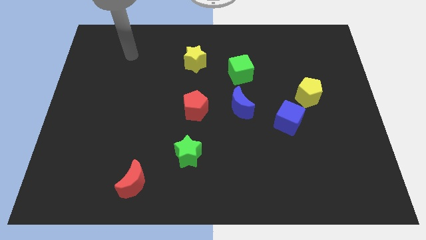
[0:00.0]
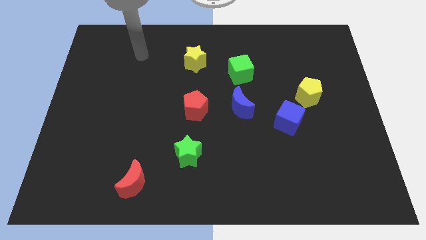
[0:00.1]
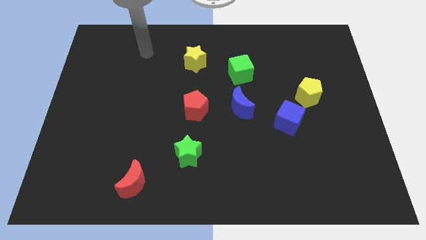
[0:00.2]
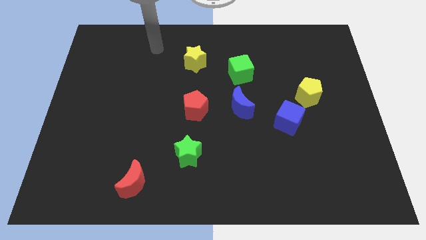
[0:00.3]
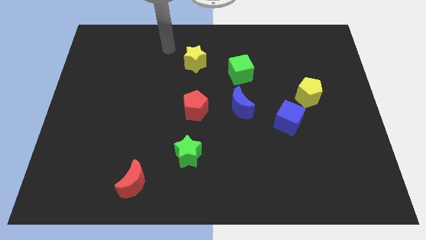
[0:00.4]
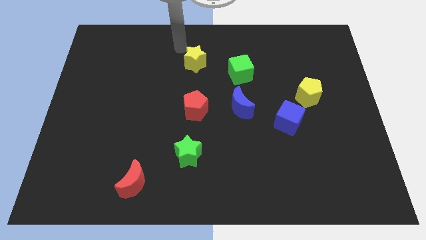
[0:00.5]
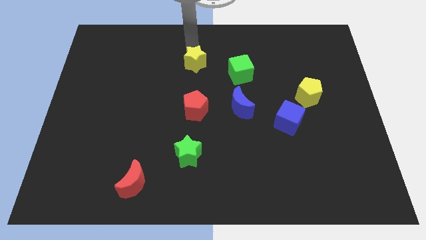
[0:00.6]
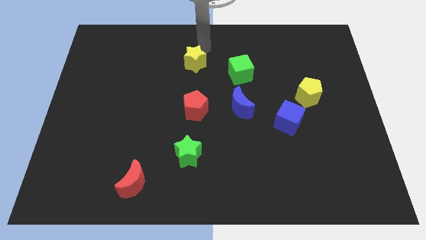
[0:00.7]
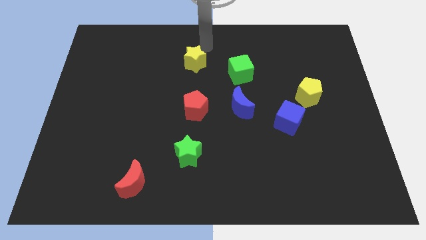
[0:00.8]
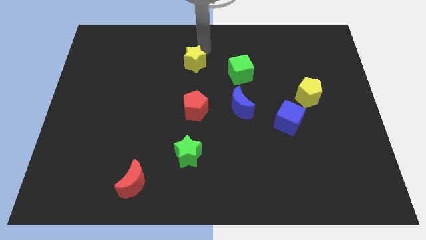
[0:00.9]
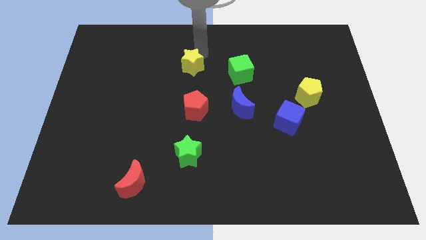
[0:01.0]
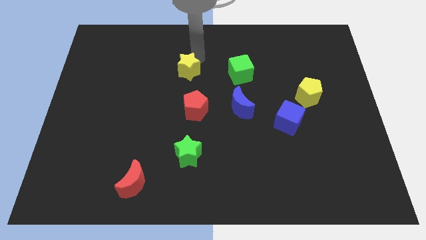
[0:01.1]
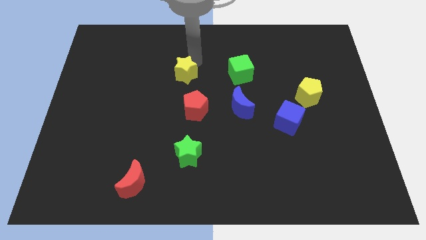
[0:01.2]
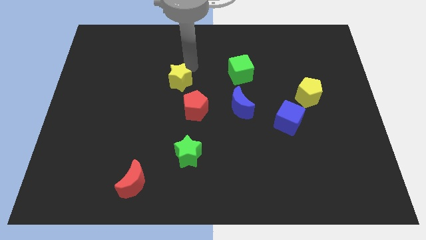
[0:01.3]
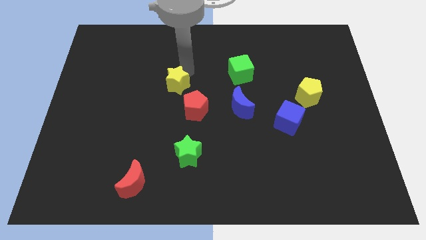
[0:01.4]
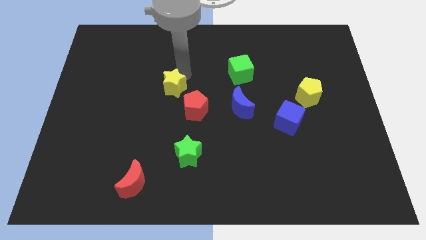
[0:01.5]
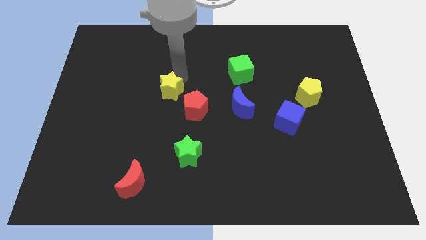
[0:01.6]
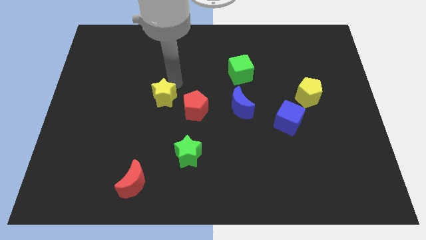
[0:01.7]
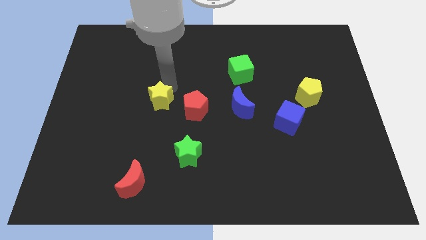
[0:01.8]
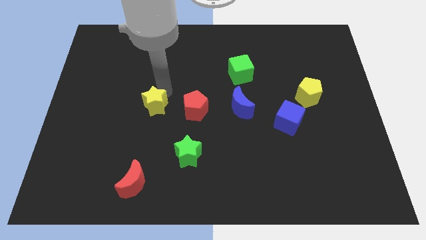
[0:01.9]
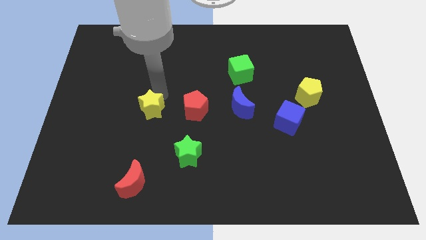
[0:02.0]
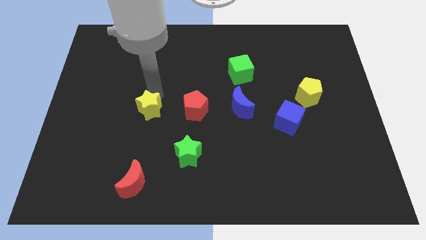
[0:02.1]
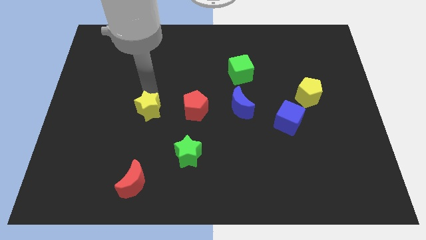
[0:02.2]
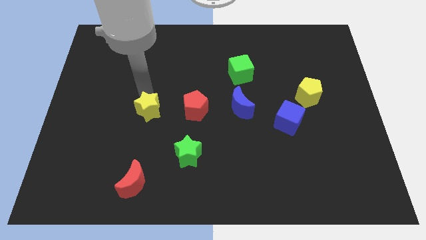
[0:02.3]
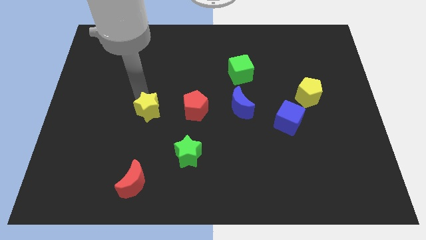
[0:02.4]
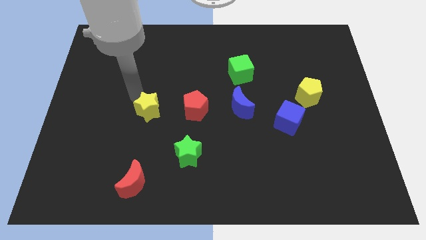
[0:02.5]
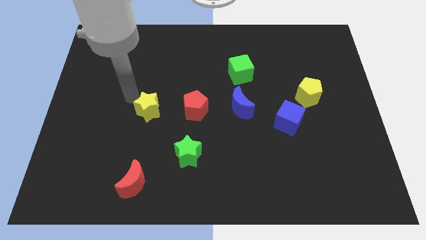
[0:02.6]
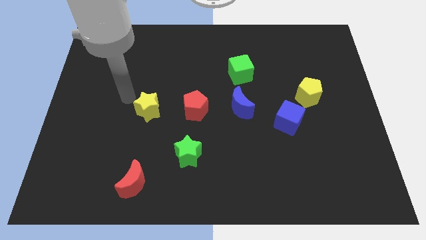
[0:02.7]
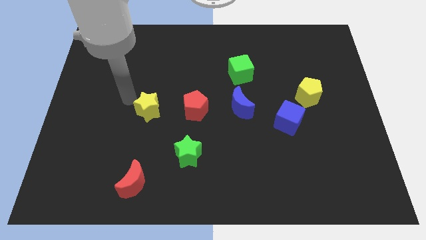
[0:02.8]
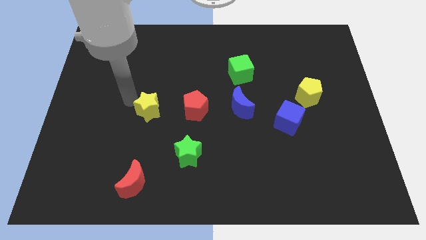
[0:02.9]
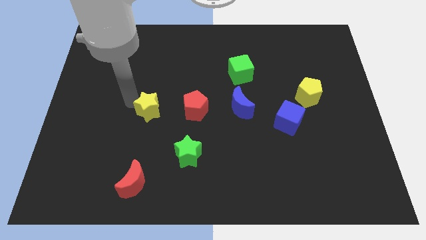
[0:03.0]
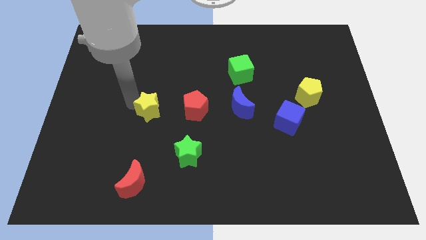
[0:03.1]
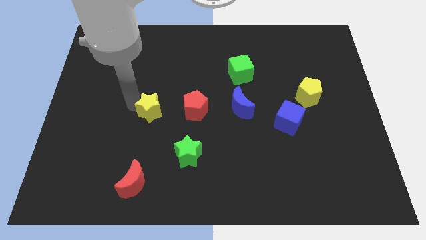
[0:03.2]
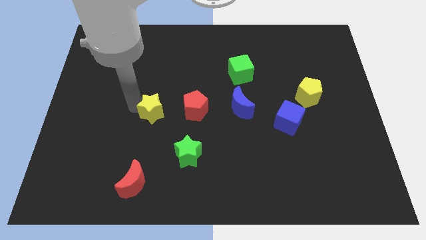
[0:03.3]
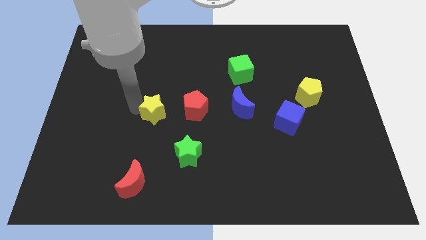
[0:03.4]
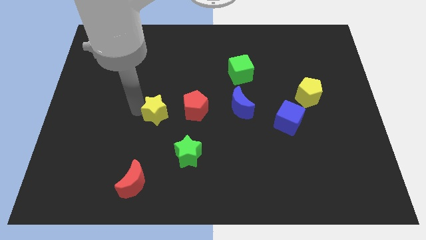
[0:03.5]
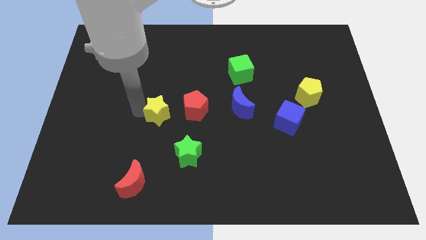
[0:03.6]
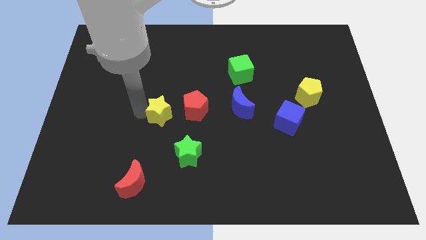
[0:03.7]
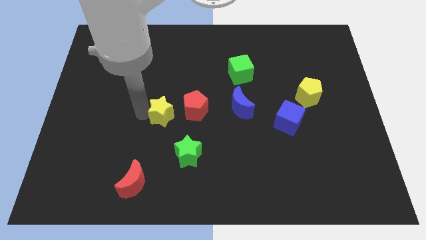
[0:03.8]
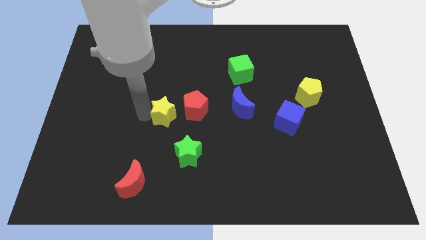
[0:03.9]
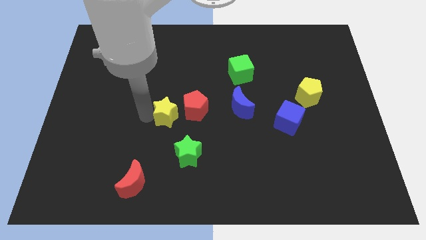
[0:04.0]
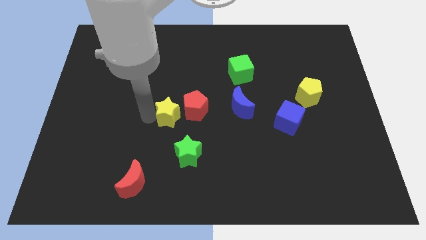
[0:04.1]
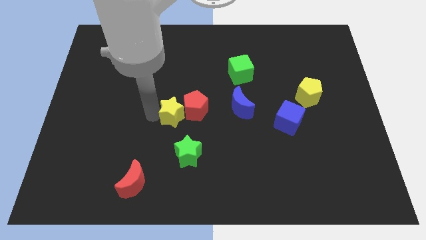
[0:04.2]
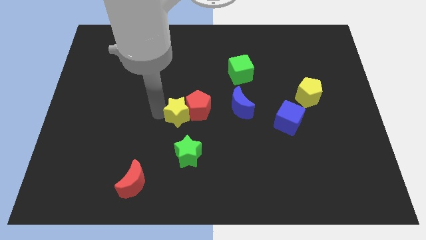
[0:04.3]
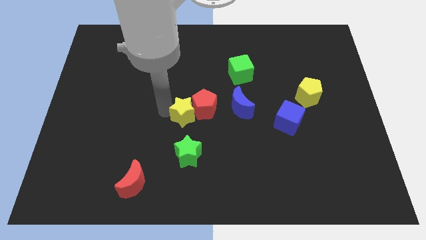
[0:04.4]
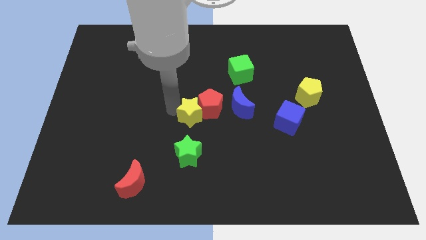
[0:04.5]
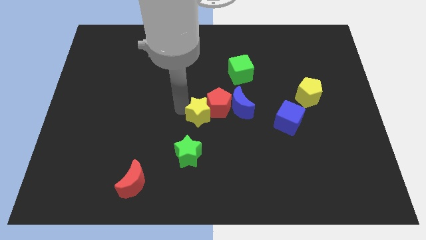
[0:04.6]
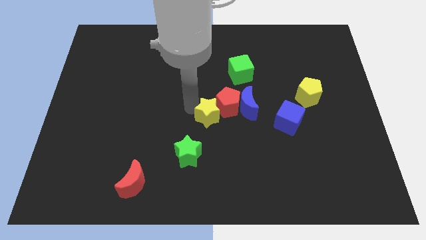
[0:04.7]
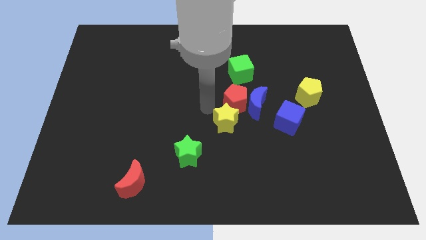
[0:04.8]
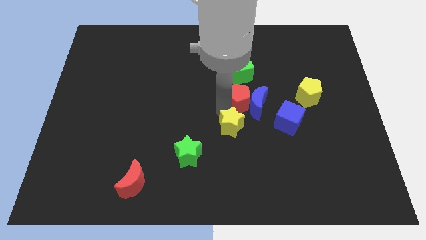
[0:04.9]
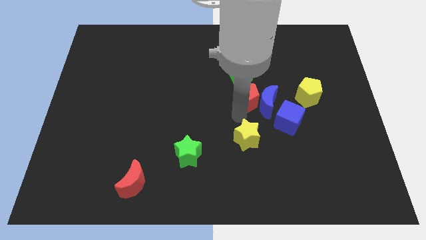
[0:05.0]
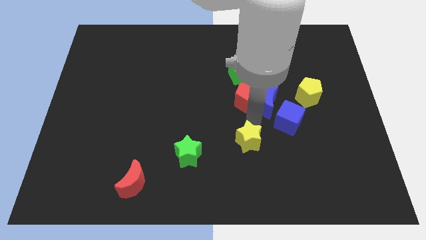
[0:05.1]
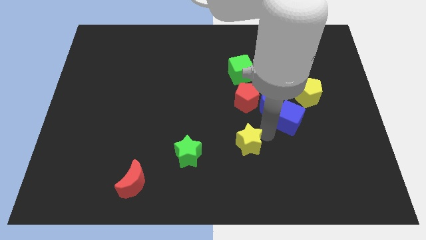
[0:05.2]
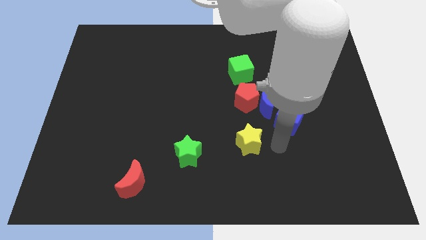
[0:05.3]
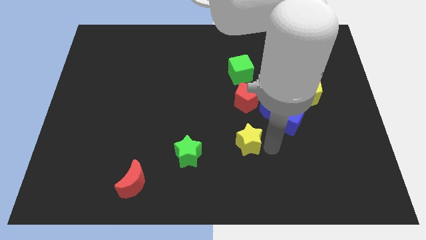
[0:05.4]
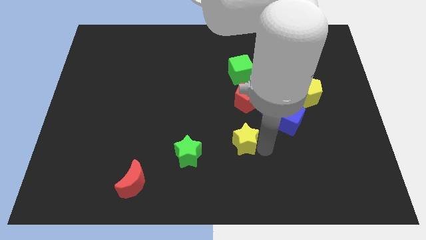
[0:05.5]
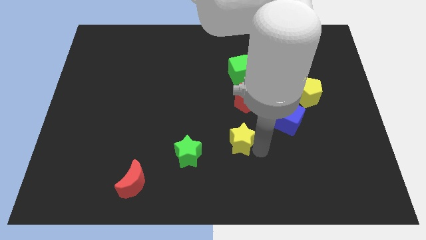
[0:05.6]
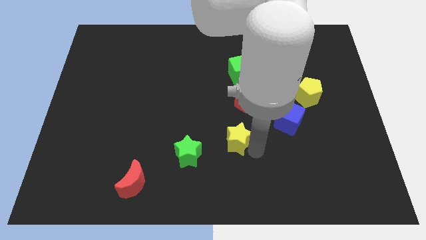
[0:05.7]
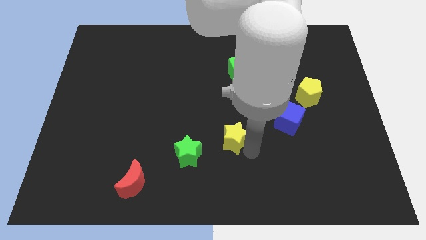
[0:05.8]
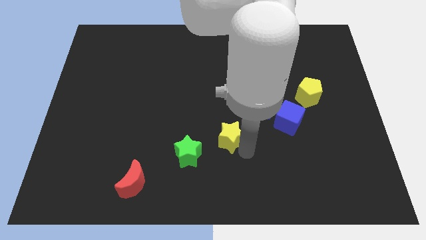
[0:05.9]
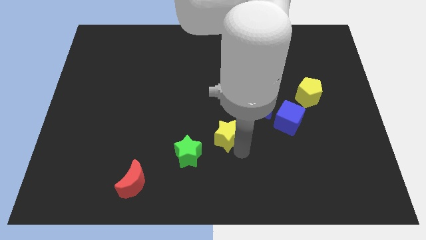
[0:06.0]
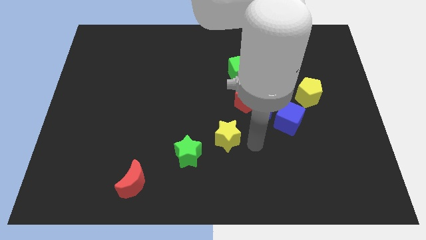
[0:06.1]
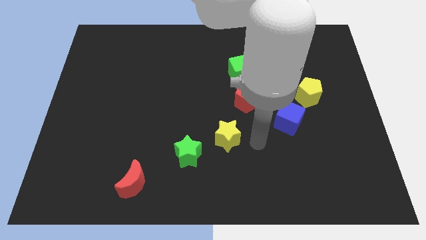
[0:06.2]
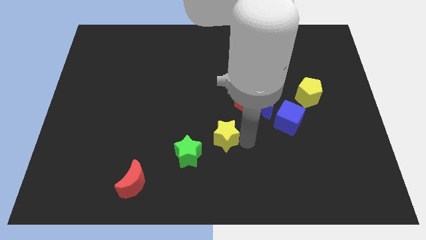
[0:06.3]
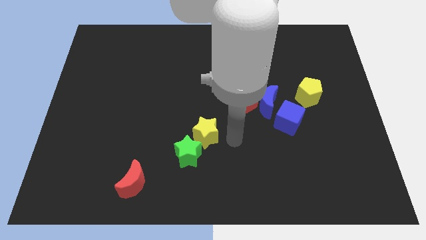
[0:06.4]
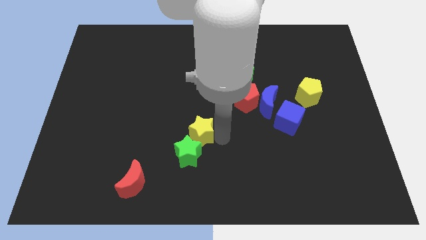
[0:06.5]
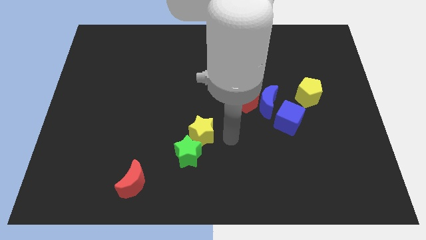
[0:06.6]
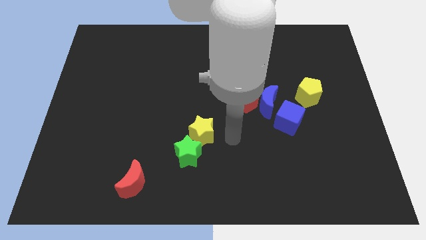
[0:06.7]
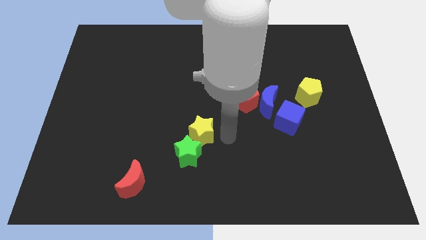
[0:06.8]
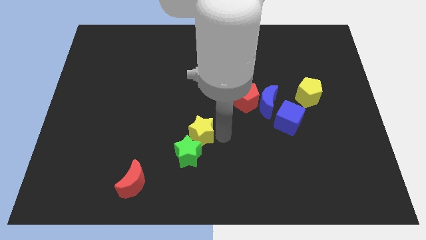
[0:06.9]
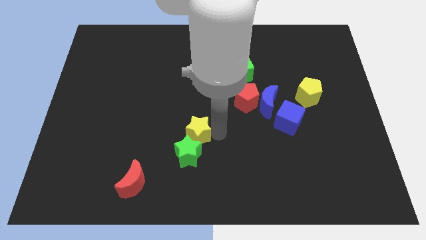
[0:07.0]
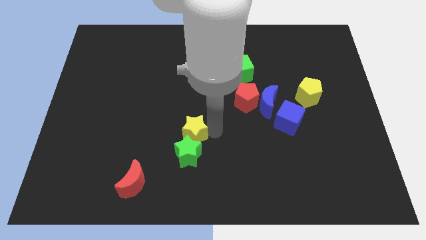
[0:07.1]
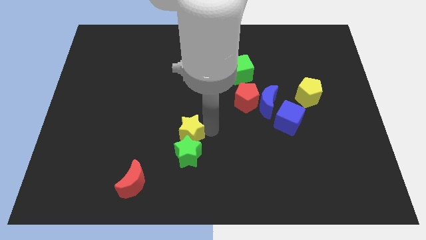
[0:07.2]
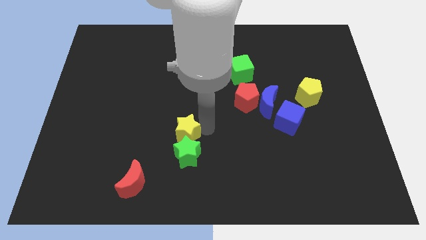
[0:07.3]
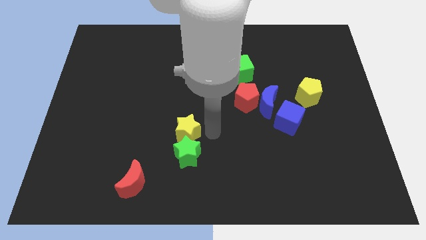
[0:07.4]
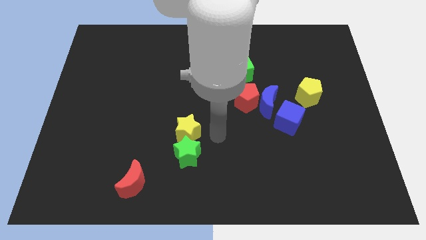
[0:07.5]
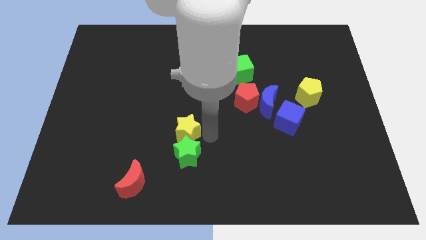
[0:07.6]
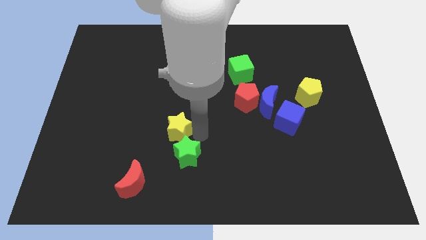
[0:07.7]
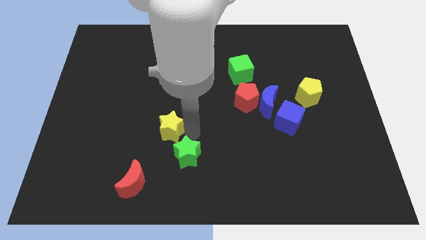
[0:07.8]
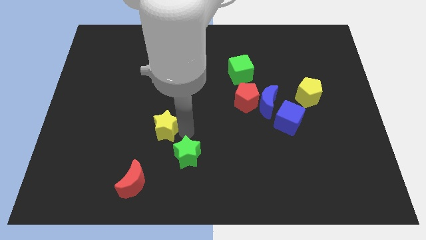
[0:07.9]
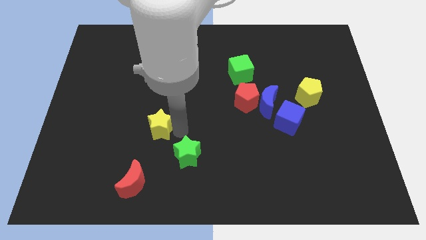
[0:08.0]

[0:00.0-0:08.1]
push the yellow star to the top of the red moon
